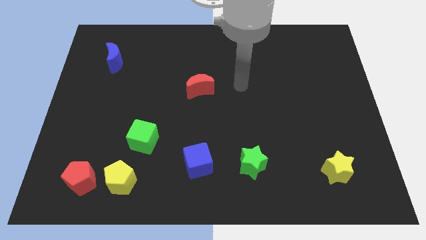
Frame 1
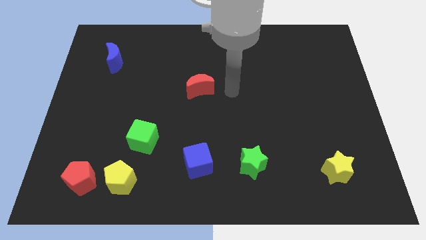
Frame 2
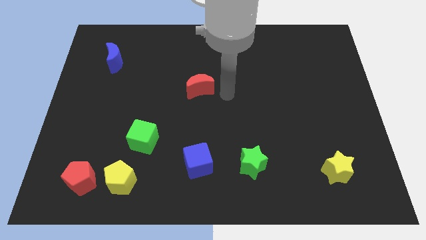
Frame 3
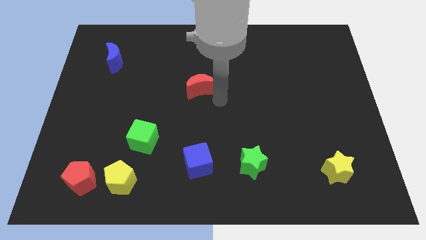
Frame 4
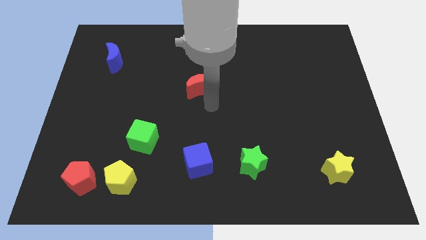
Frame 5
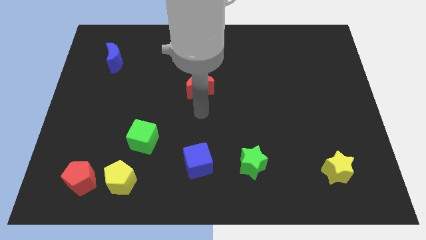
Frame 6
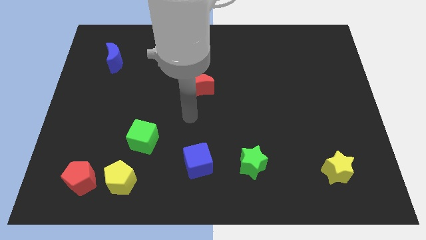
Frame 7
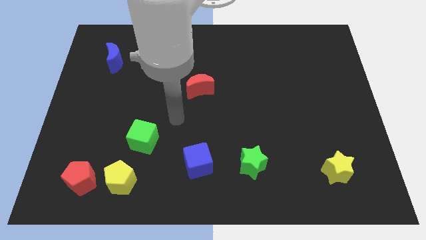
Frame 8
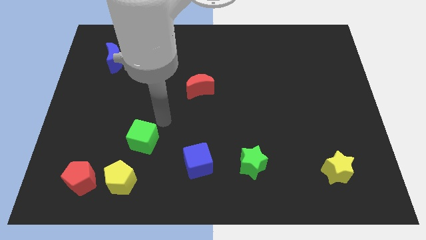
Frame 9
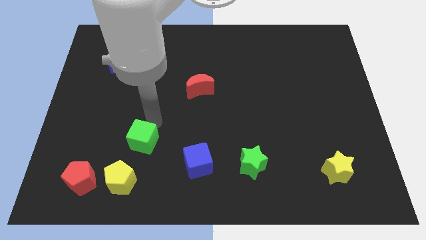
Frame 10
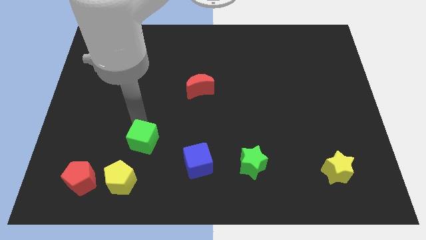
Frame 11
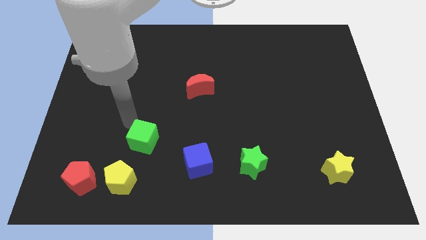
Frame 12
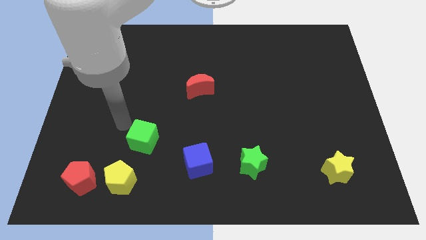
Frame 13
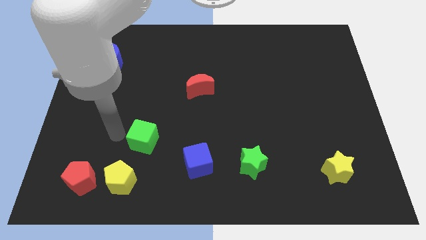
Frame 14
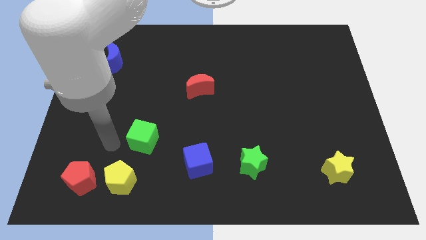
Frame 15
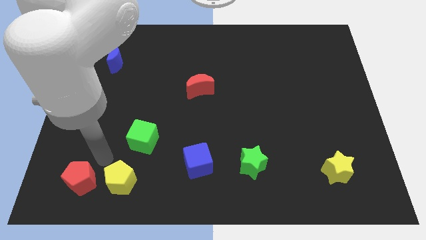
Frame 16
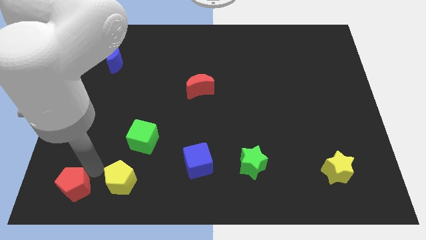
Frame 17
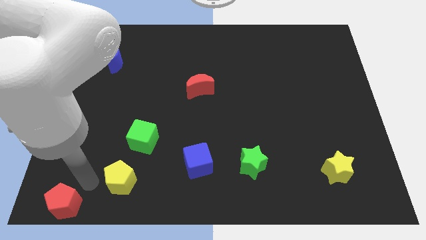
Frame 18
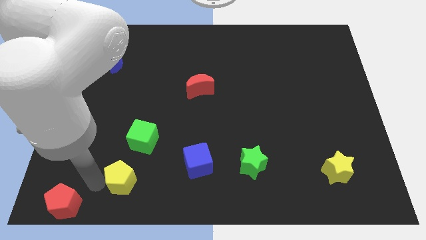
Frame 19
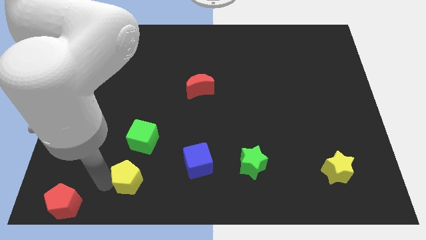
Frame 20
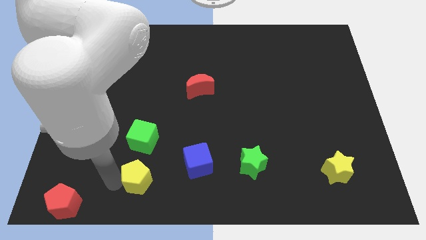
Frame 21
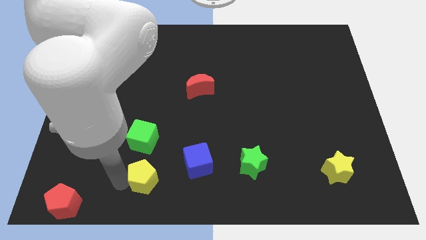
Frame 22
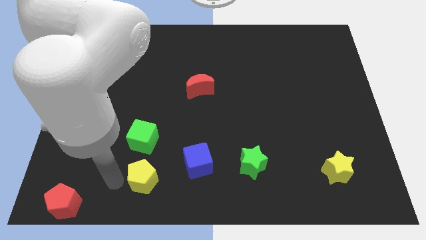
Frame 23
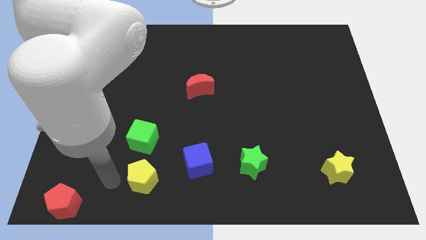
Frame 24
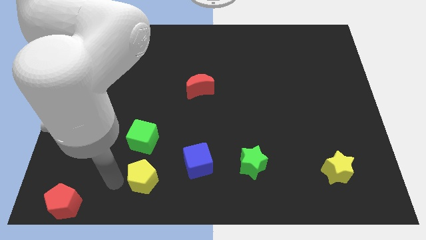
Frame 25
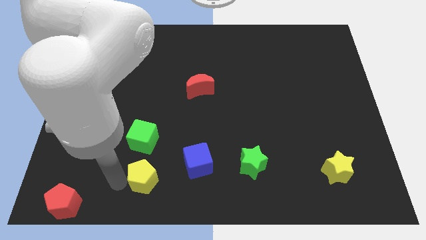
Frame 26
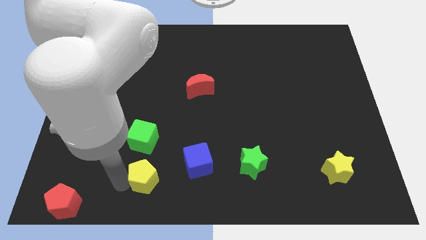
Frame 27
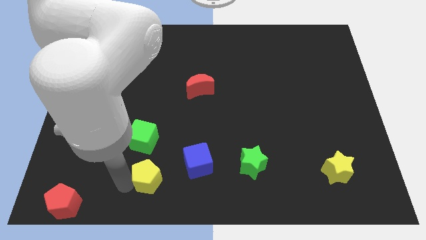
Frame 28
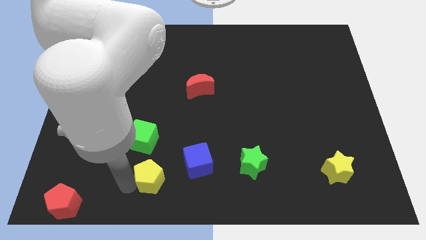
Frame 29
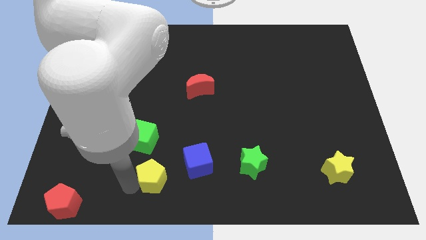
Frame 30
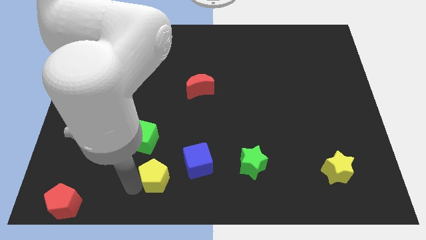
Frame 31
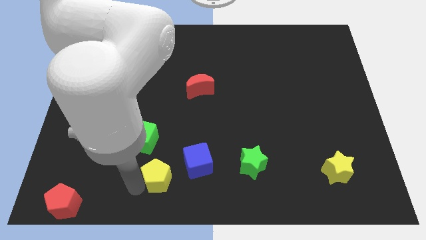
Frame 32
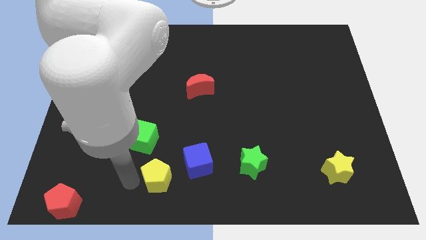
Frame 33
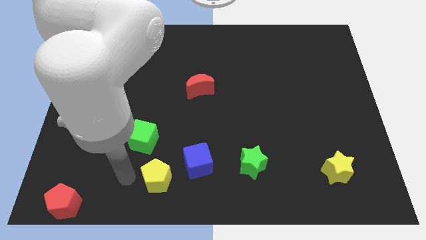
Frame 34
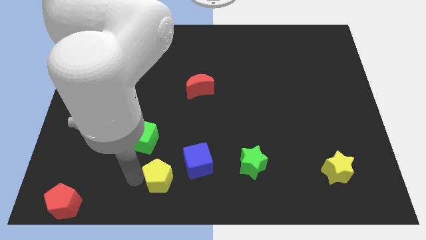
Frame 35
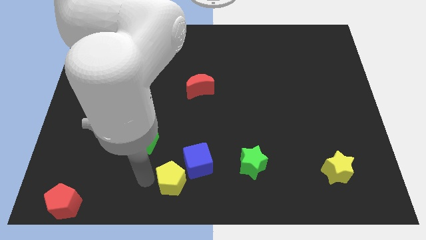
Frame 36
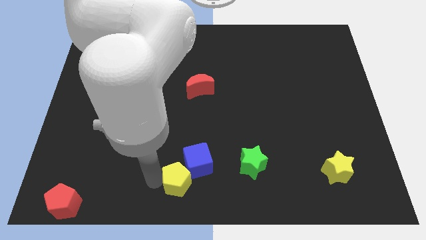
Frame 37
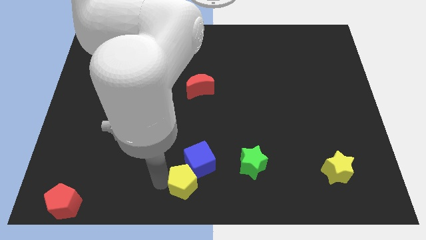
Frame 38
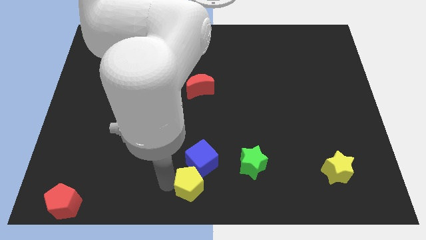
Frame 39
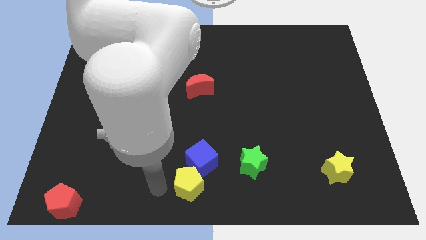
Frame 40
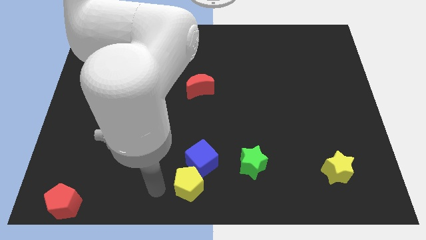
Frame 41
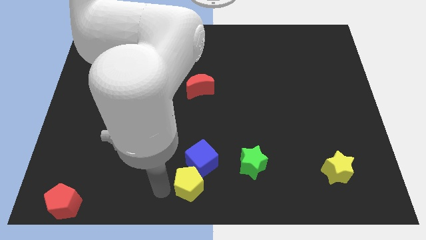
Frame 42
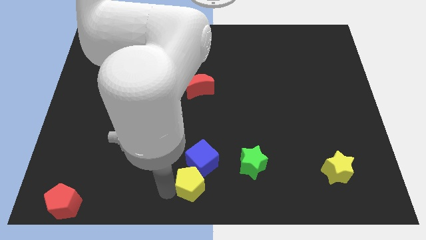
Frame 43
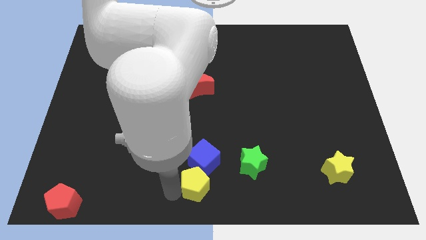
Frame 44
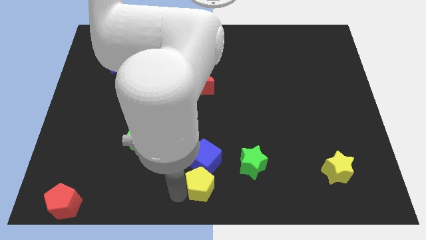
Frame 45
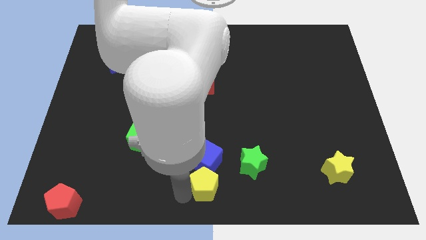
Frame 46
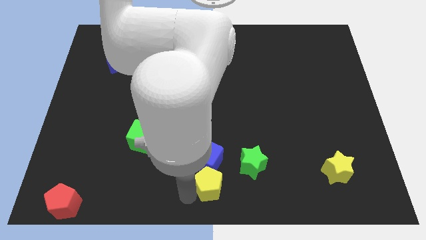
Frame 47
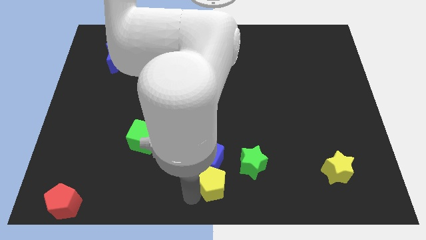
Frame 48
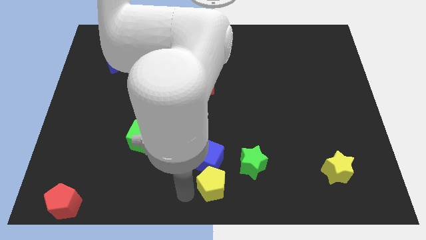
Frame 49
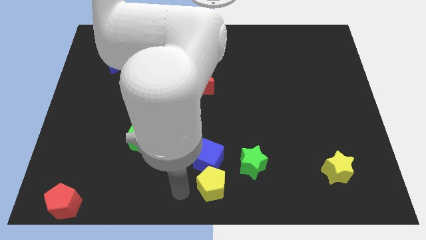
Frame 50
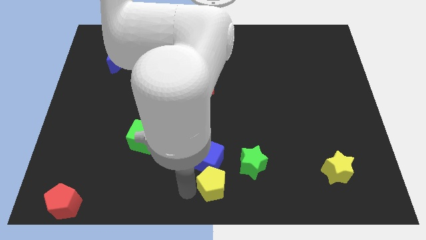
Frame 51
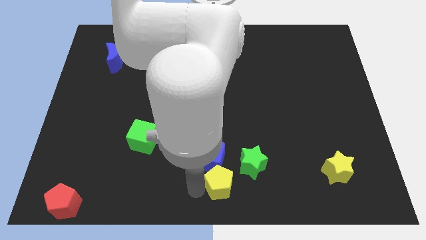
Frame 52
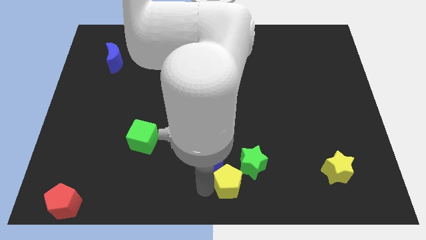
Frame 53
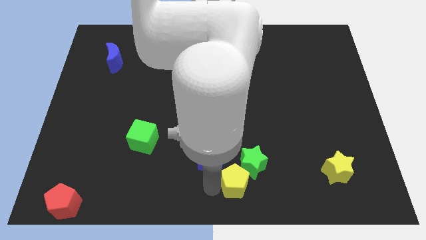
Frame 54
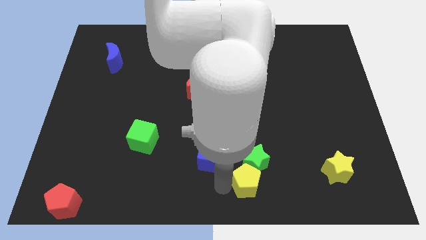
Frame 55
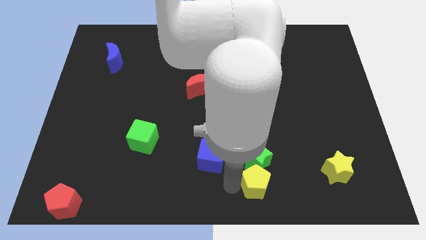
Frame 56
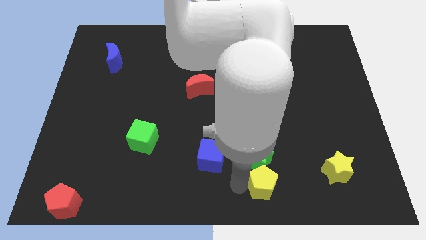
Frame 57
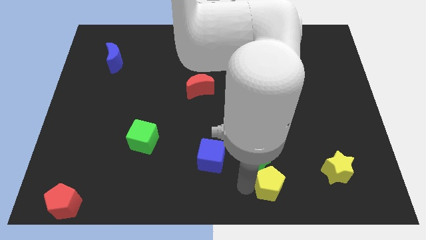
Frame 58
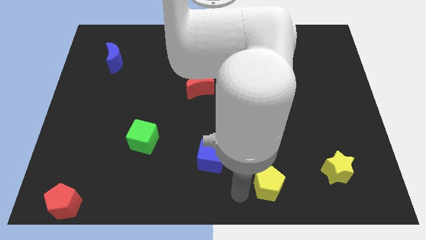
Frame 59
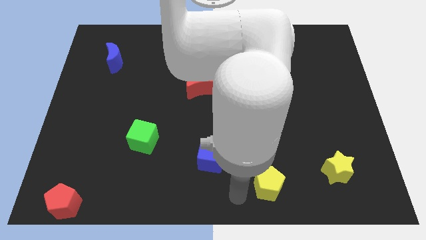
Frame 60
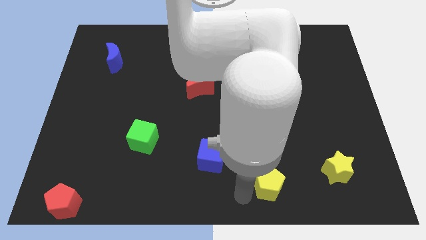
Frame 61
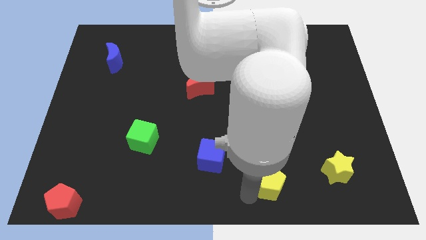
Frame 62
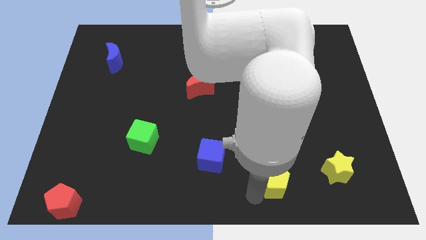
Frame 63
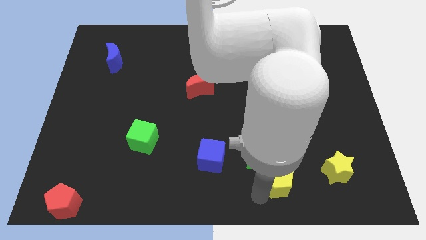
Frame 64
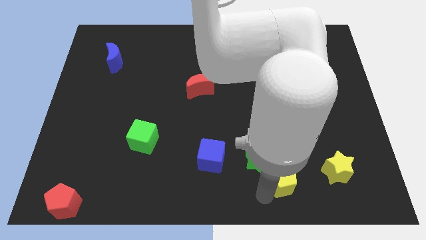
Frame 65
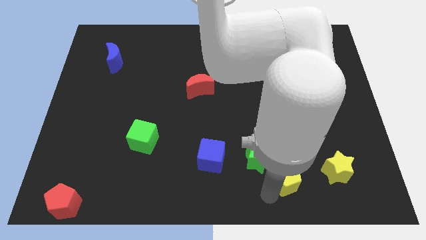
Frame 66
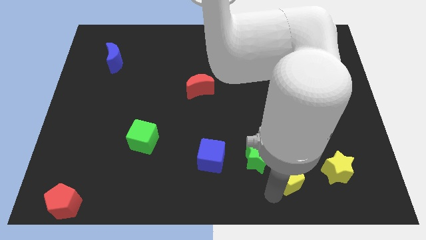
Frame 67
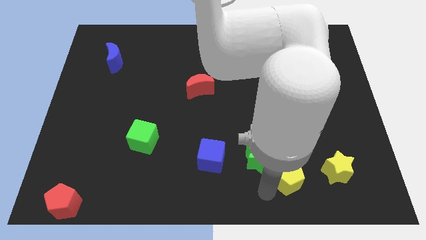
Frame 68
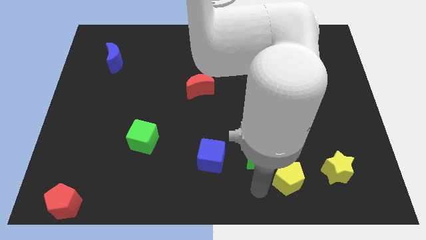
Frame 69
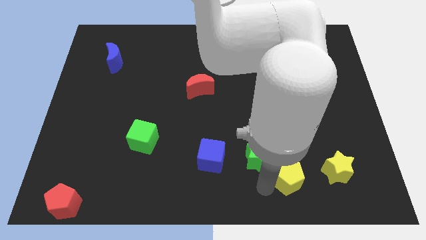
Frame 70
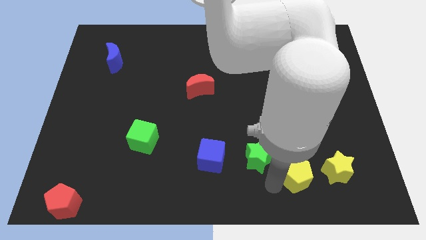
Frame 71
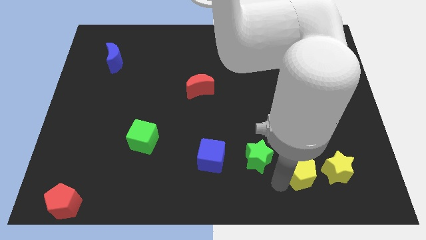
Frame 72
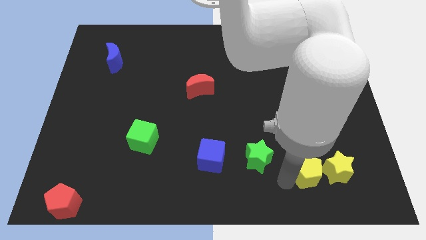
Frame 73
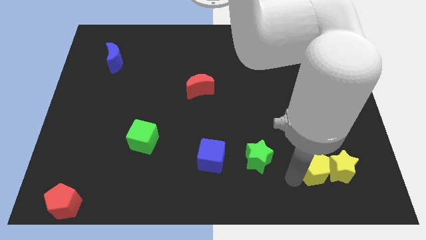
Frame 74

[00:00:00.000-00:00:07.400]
slide the yellow pentagon towards the yellow star
